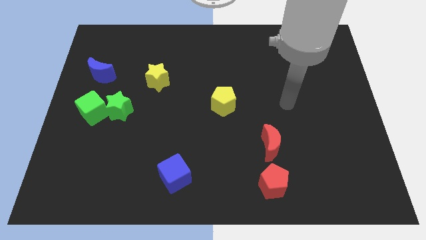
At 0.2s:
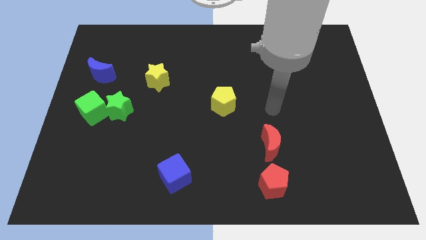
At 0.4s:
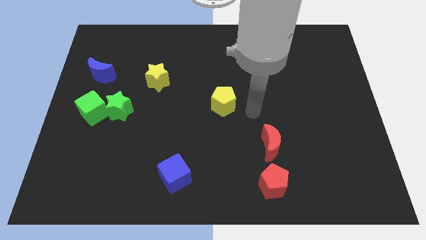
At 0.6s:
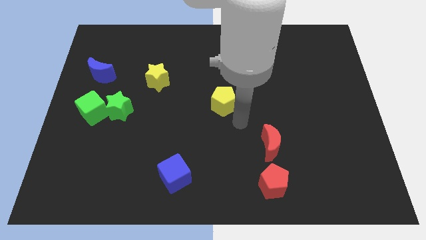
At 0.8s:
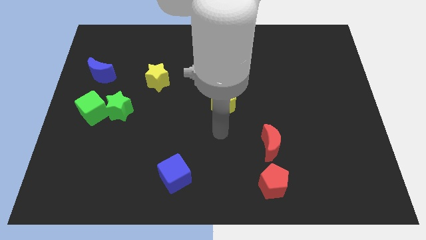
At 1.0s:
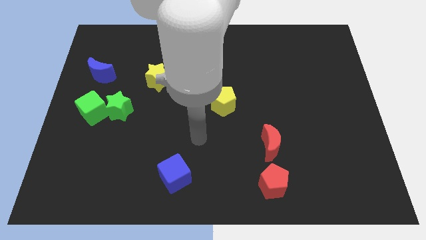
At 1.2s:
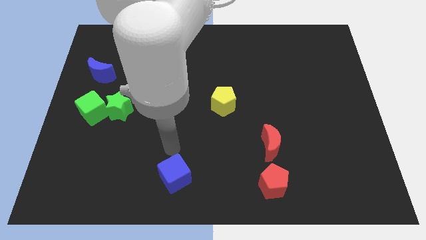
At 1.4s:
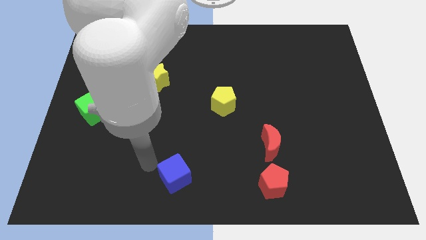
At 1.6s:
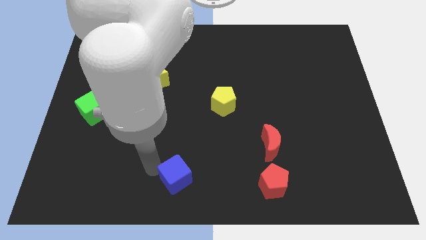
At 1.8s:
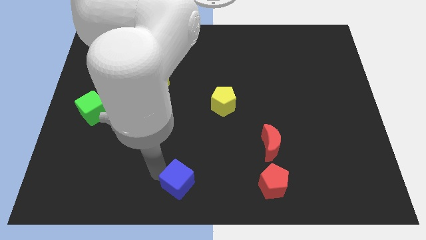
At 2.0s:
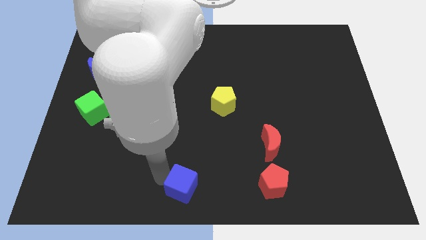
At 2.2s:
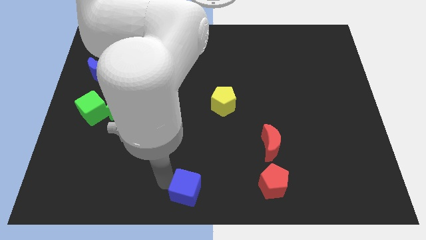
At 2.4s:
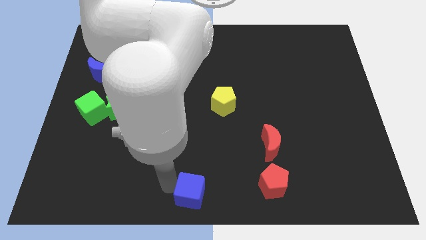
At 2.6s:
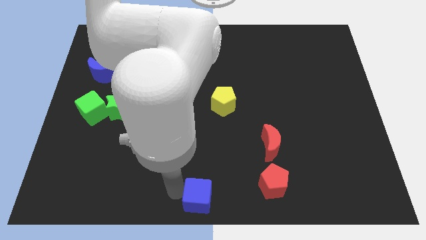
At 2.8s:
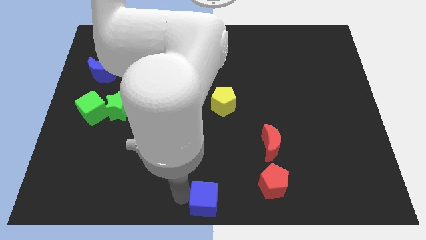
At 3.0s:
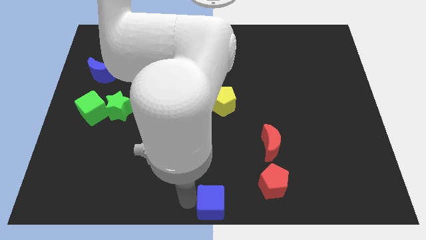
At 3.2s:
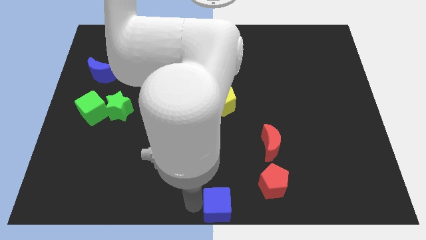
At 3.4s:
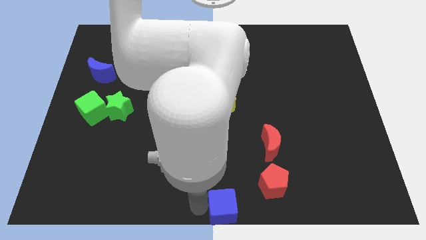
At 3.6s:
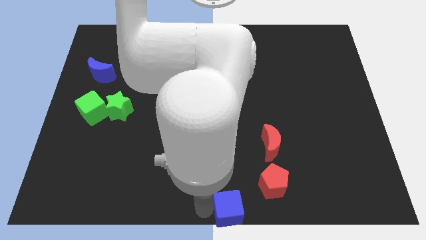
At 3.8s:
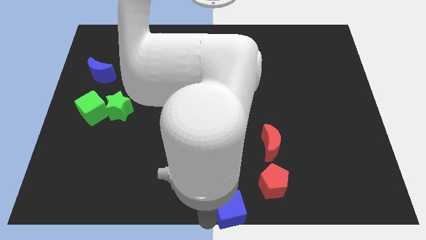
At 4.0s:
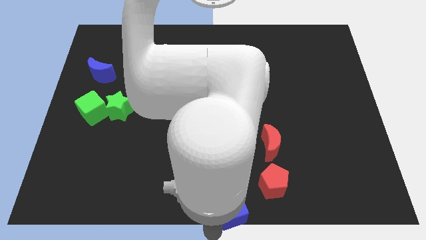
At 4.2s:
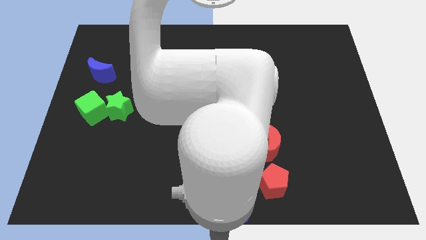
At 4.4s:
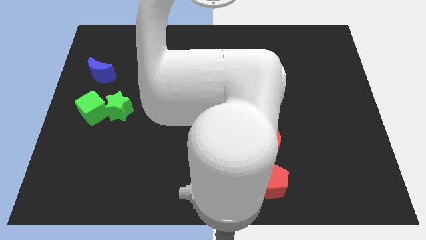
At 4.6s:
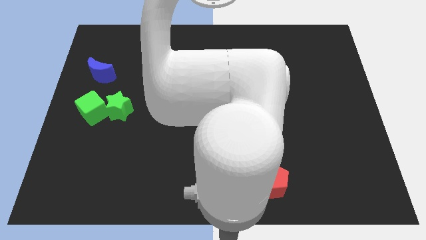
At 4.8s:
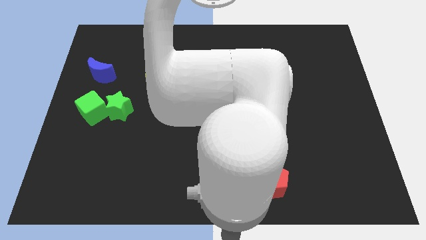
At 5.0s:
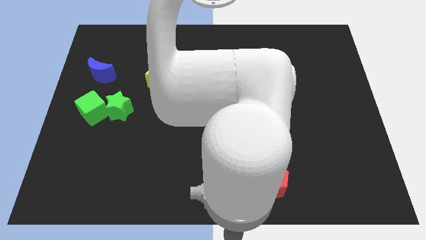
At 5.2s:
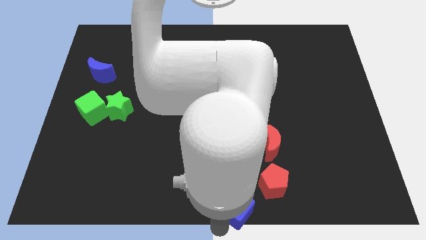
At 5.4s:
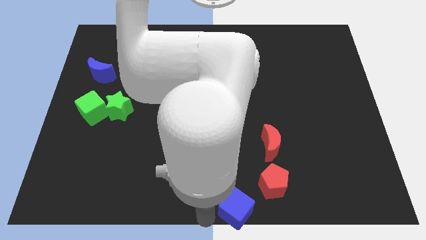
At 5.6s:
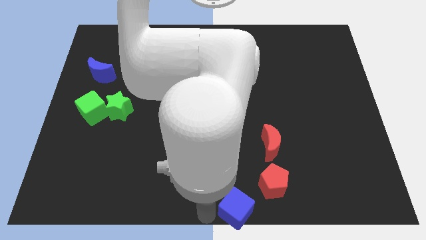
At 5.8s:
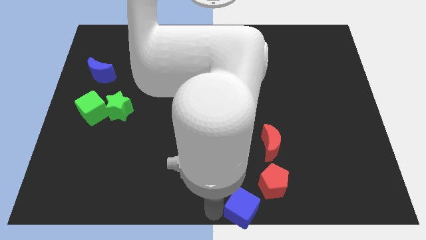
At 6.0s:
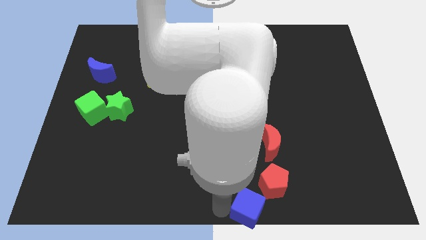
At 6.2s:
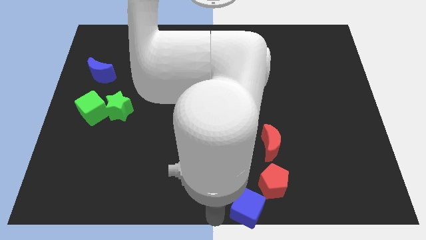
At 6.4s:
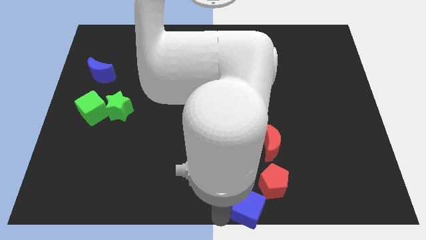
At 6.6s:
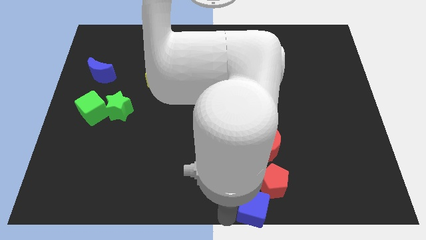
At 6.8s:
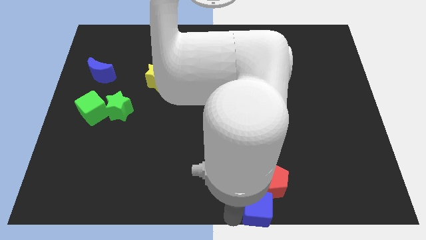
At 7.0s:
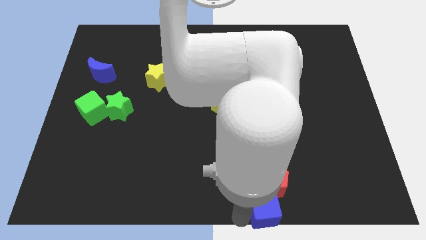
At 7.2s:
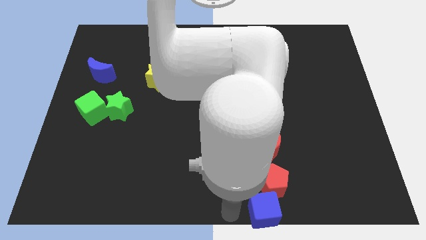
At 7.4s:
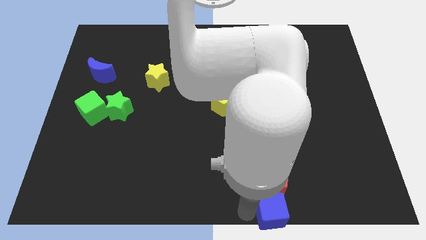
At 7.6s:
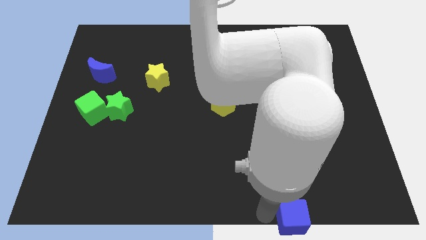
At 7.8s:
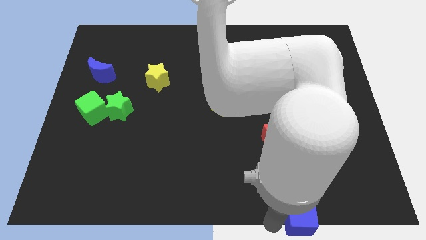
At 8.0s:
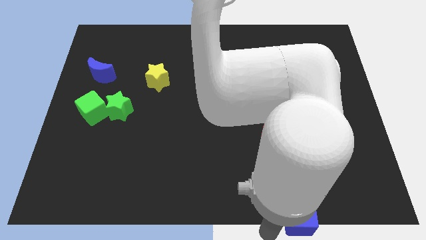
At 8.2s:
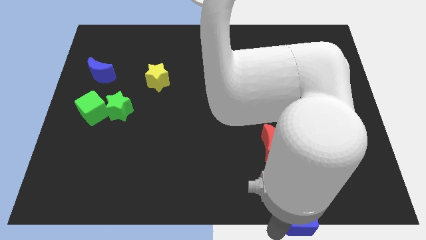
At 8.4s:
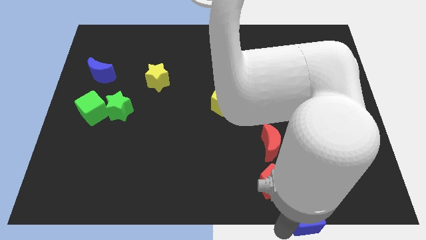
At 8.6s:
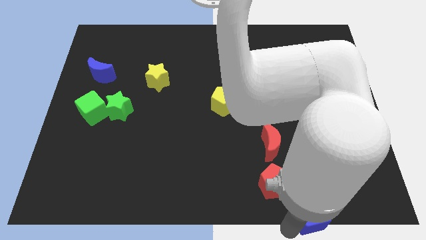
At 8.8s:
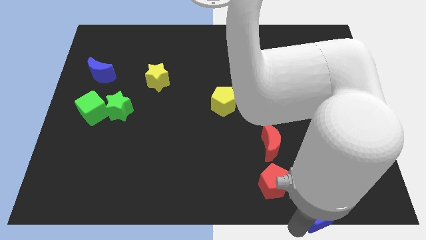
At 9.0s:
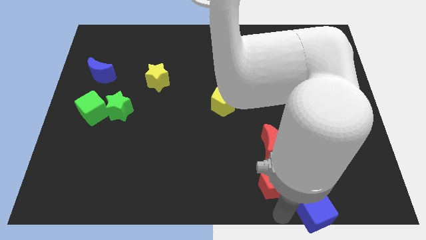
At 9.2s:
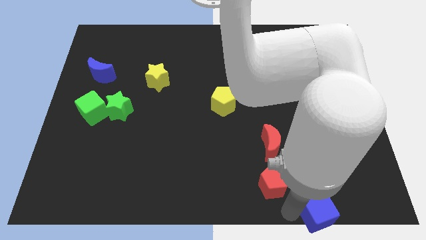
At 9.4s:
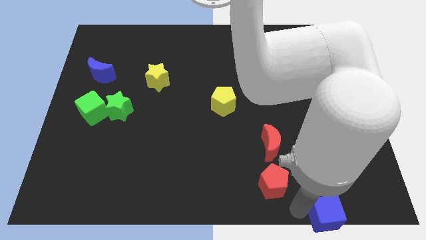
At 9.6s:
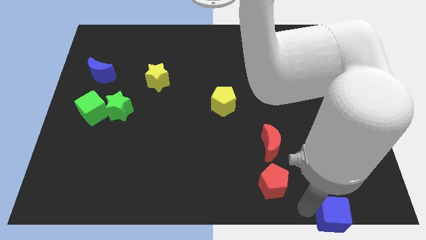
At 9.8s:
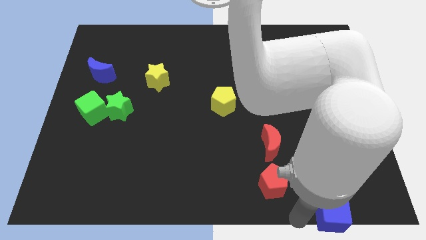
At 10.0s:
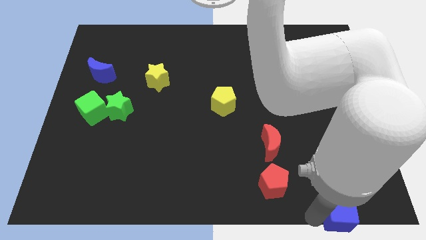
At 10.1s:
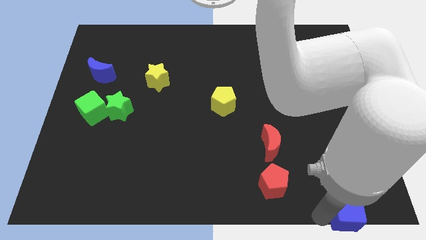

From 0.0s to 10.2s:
push the blue cube to the bottom right corner

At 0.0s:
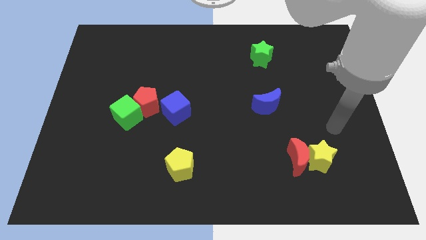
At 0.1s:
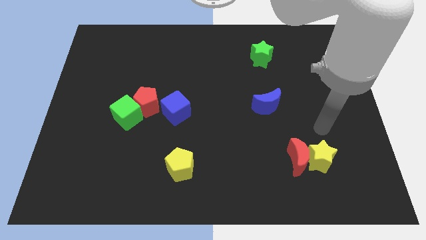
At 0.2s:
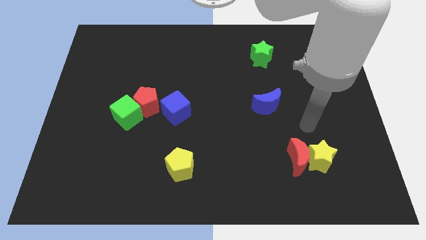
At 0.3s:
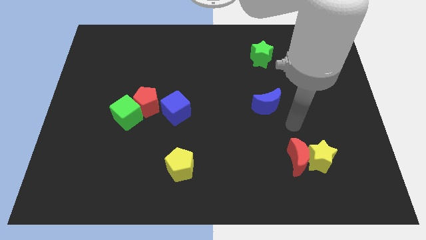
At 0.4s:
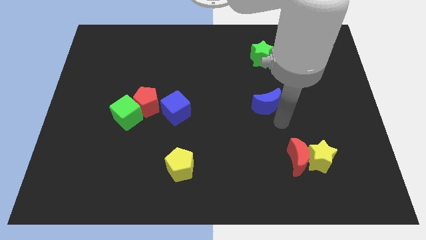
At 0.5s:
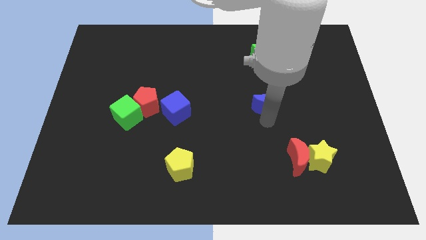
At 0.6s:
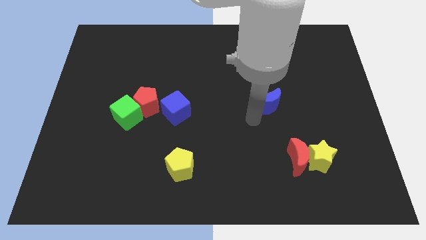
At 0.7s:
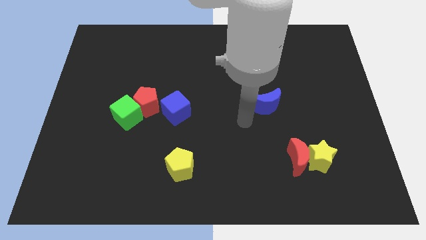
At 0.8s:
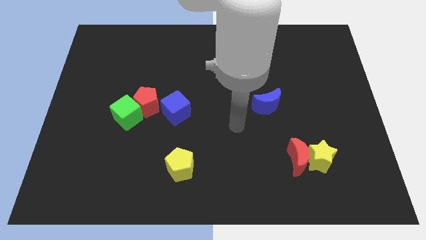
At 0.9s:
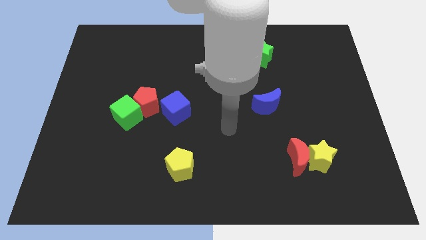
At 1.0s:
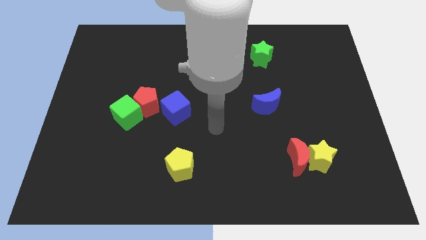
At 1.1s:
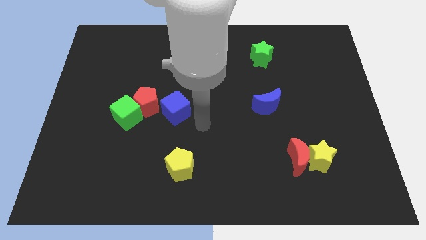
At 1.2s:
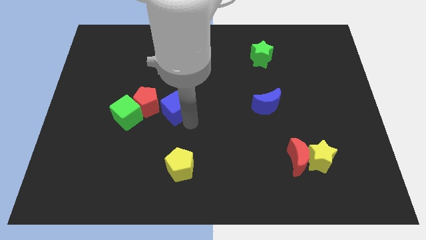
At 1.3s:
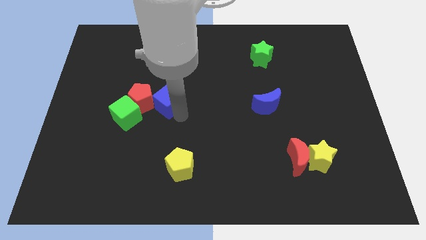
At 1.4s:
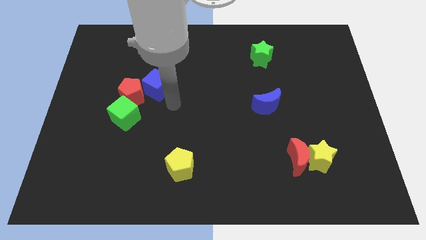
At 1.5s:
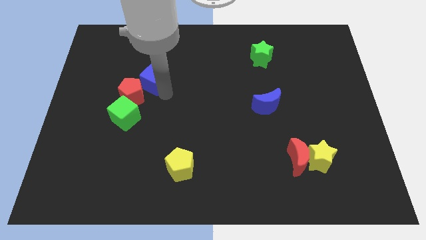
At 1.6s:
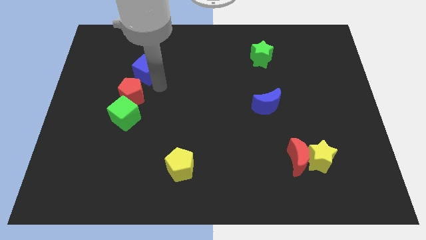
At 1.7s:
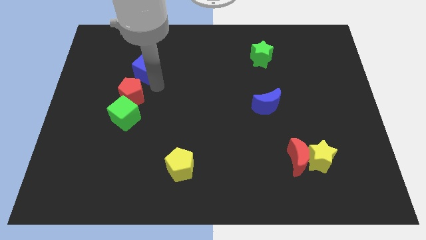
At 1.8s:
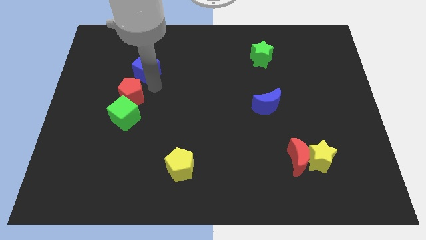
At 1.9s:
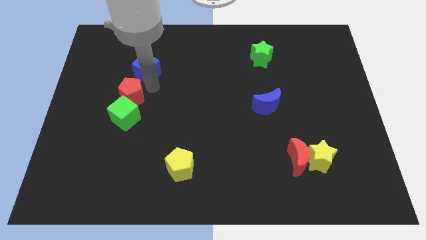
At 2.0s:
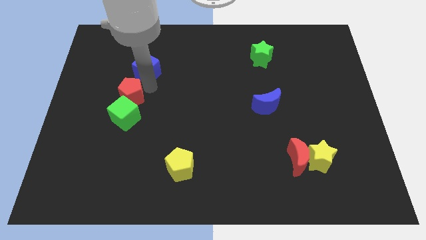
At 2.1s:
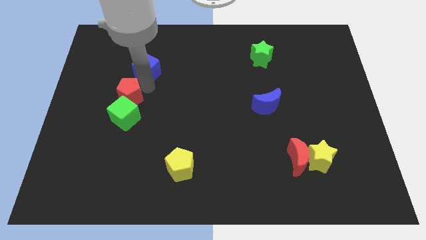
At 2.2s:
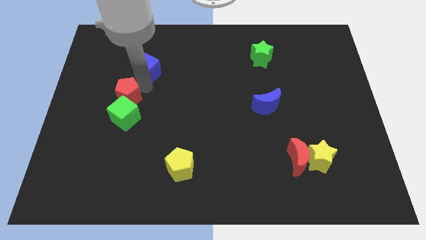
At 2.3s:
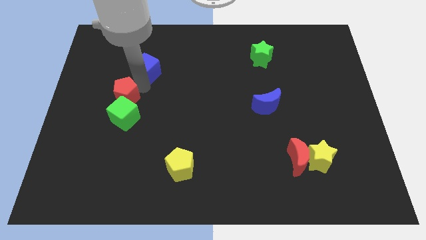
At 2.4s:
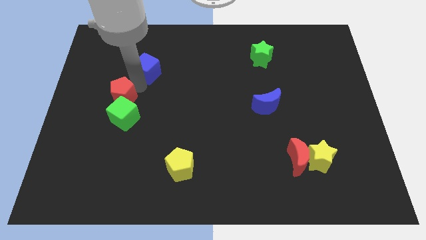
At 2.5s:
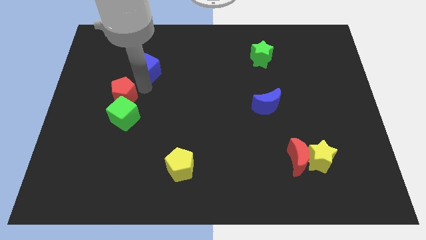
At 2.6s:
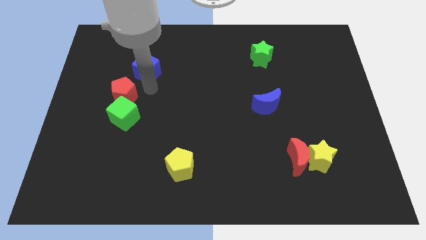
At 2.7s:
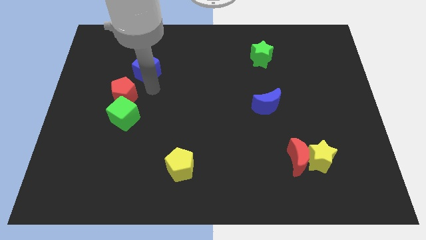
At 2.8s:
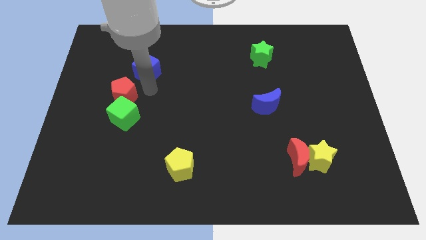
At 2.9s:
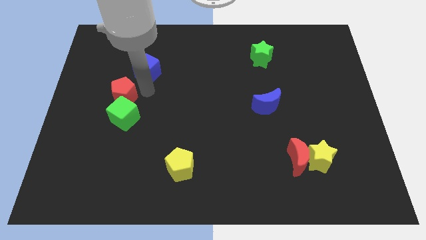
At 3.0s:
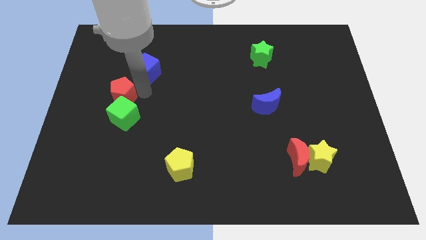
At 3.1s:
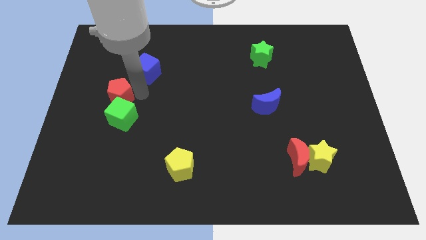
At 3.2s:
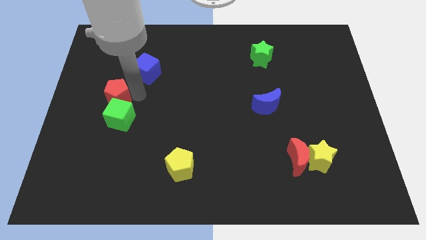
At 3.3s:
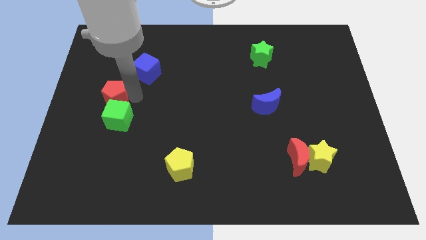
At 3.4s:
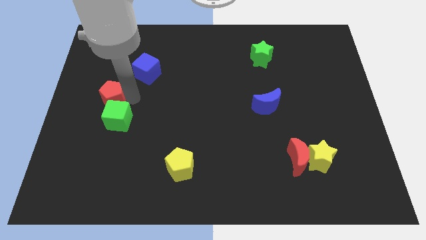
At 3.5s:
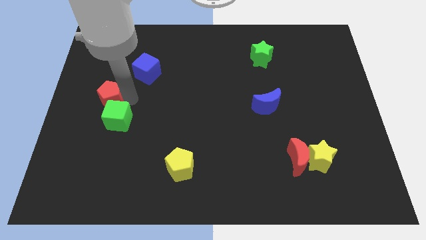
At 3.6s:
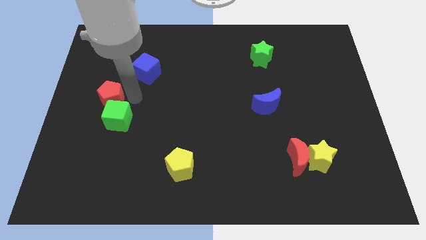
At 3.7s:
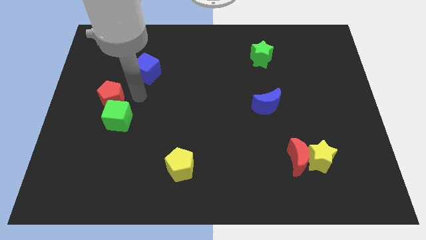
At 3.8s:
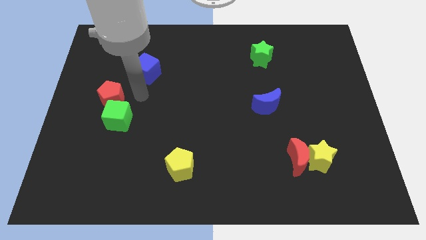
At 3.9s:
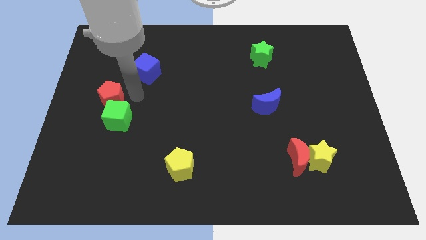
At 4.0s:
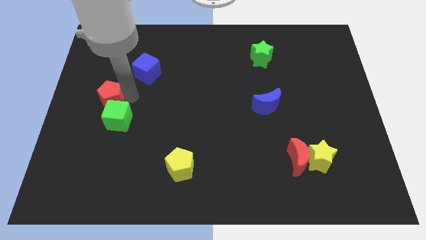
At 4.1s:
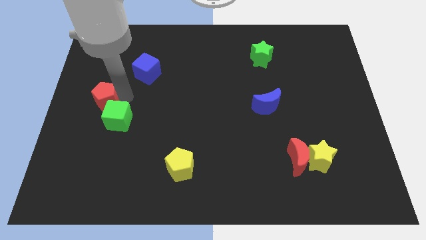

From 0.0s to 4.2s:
slide the red pentagon to the center left
